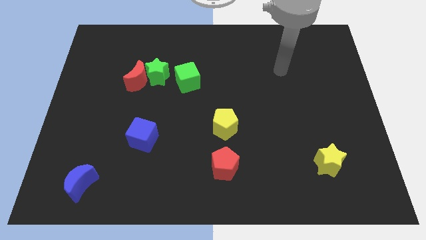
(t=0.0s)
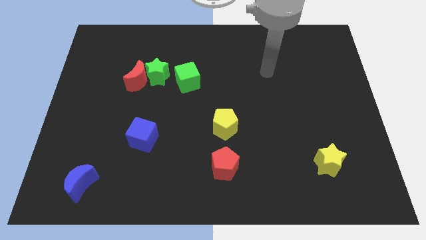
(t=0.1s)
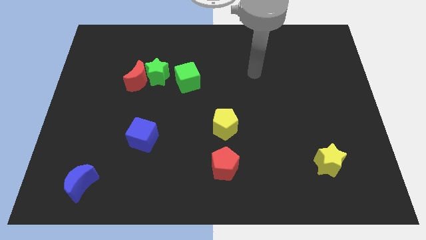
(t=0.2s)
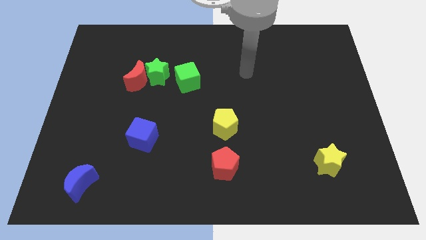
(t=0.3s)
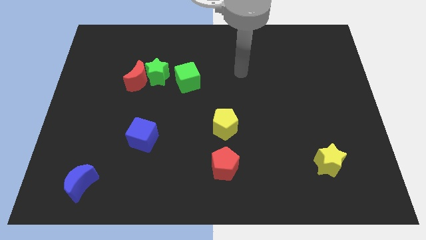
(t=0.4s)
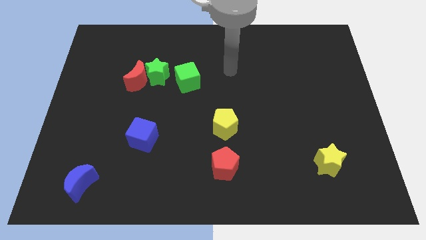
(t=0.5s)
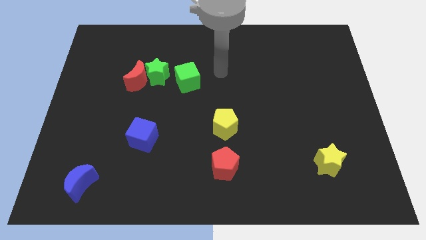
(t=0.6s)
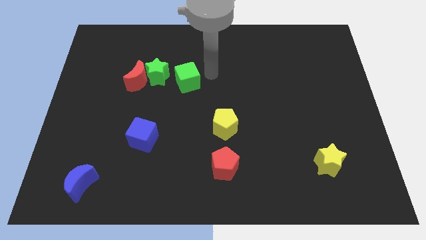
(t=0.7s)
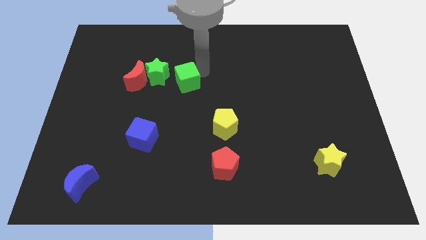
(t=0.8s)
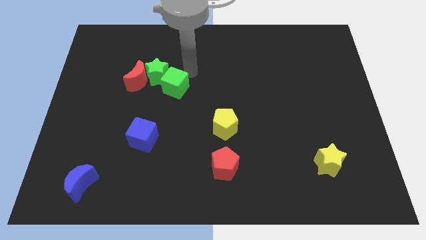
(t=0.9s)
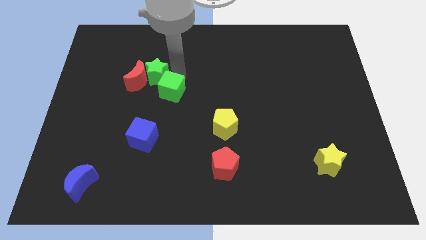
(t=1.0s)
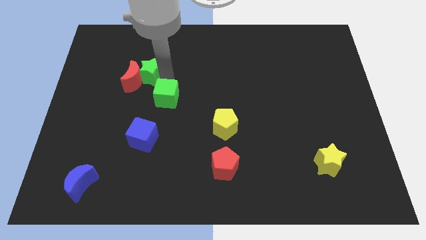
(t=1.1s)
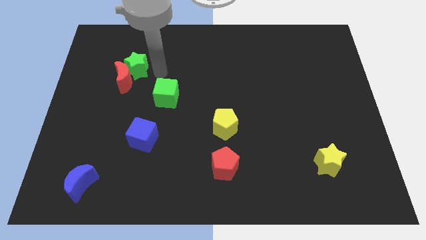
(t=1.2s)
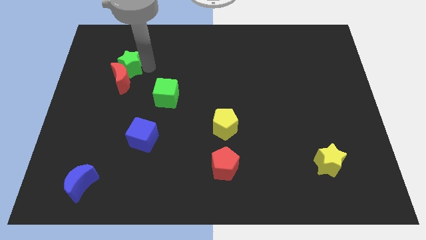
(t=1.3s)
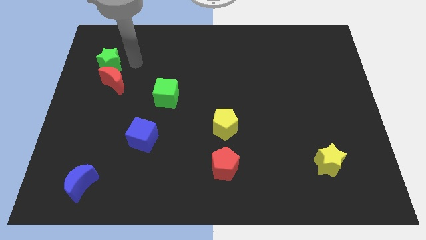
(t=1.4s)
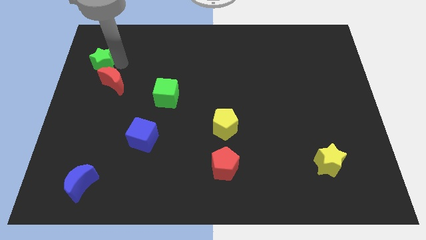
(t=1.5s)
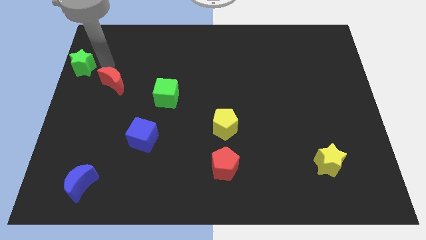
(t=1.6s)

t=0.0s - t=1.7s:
pull the red moon apart from the green star

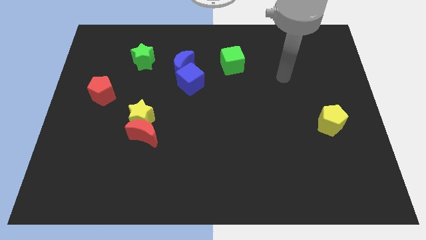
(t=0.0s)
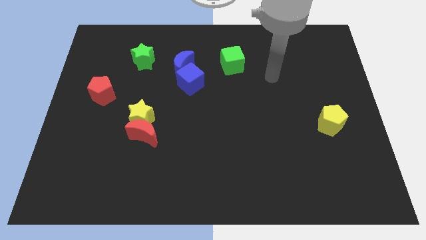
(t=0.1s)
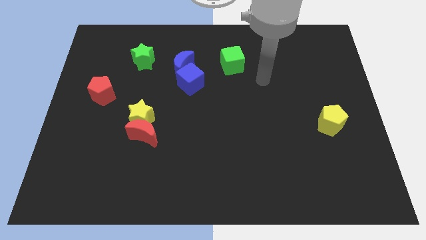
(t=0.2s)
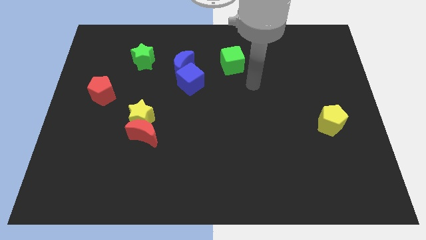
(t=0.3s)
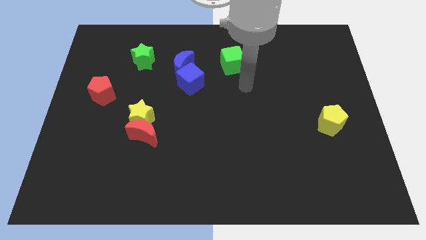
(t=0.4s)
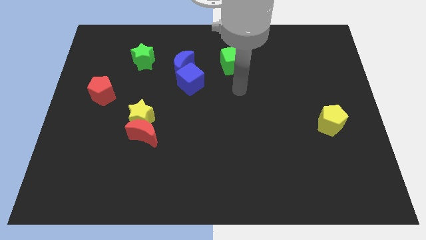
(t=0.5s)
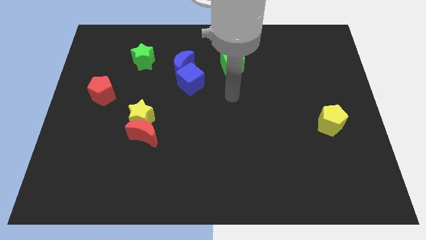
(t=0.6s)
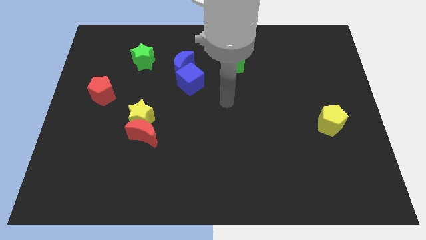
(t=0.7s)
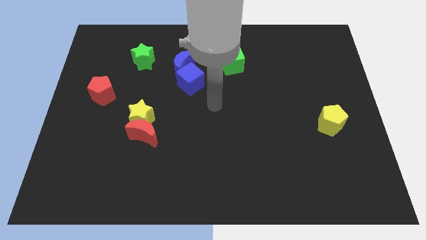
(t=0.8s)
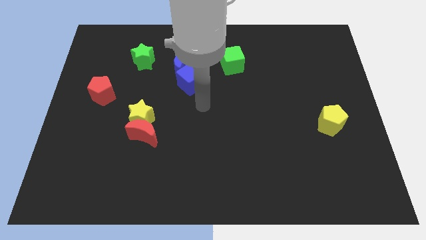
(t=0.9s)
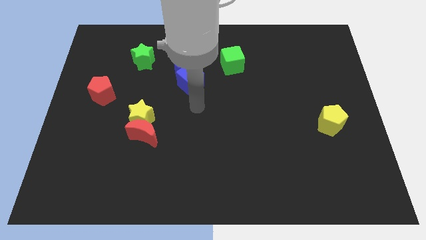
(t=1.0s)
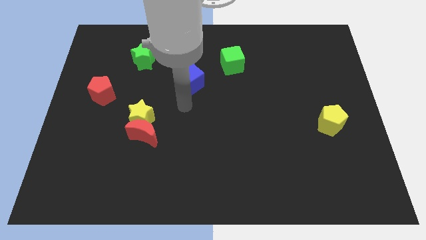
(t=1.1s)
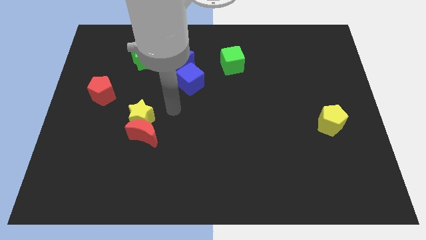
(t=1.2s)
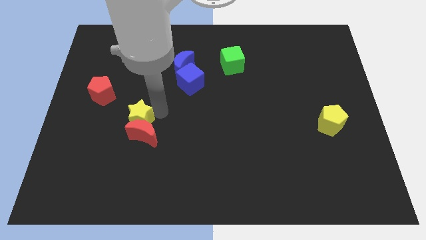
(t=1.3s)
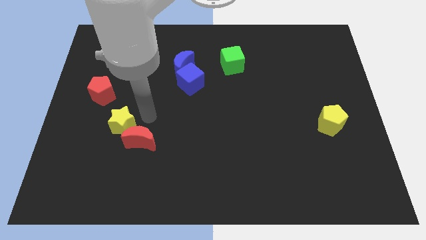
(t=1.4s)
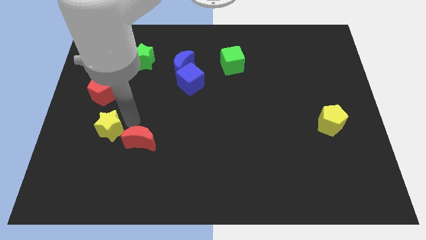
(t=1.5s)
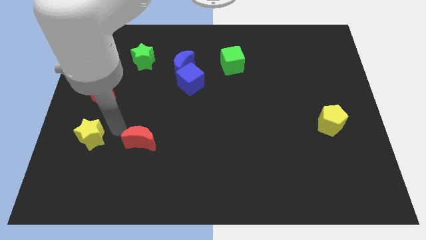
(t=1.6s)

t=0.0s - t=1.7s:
separate the red moon from the yellow star

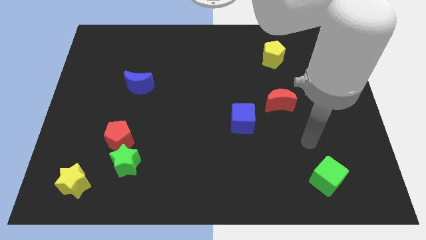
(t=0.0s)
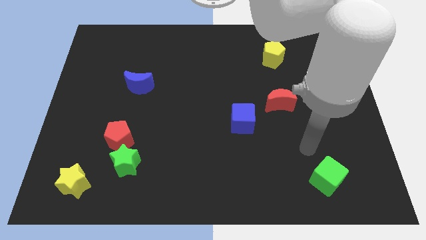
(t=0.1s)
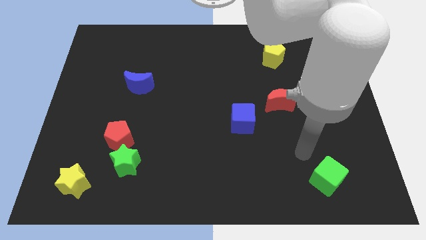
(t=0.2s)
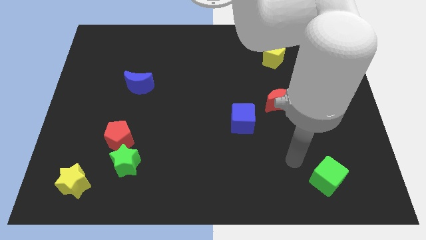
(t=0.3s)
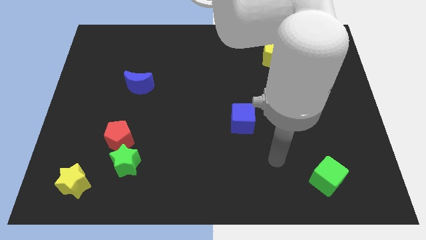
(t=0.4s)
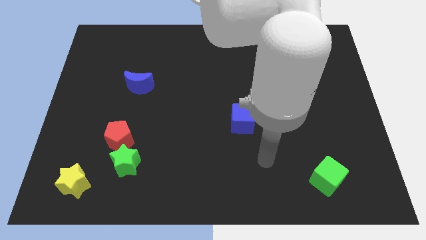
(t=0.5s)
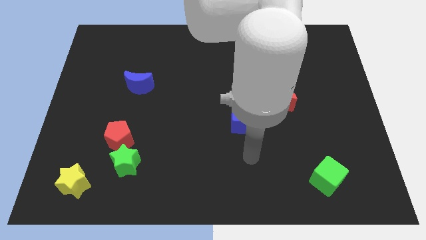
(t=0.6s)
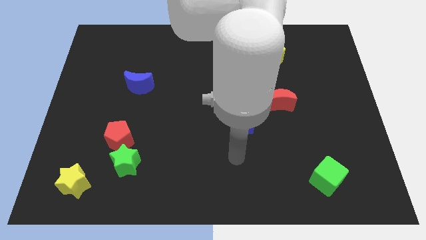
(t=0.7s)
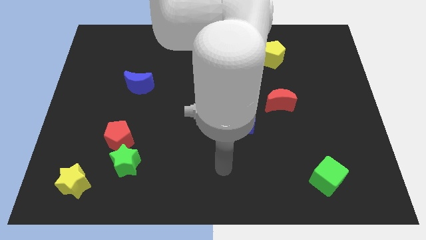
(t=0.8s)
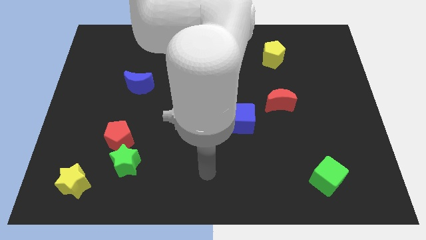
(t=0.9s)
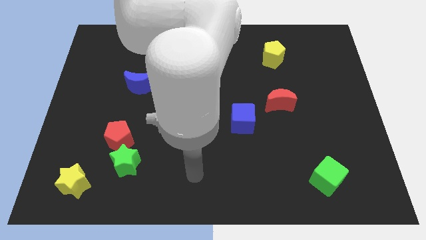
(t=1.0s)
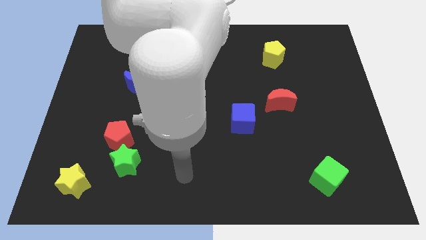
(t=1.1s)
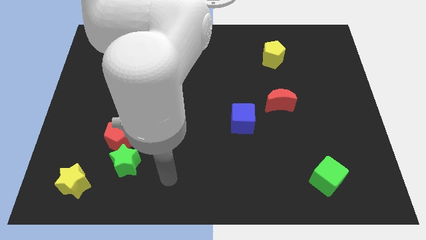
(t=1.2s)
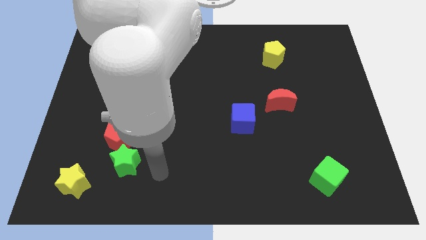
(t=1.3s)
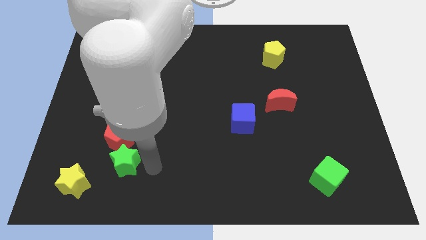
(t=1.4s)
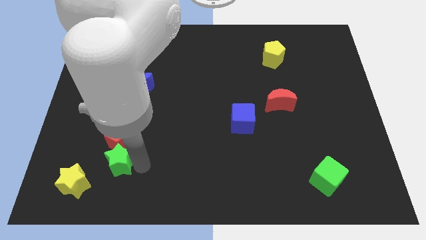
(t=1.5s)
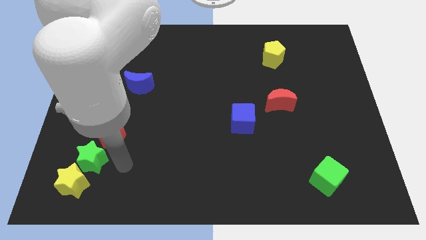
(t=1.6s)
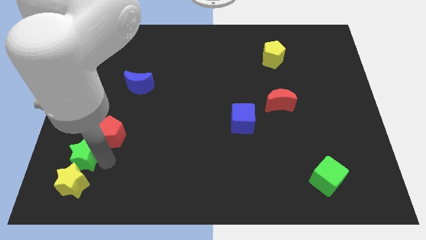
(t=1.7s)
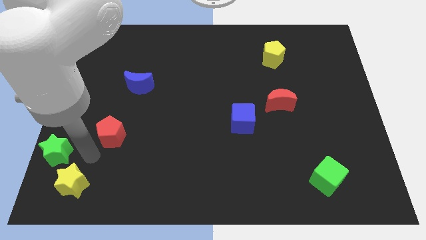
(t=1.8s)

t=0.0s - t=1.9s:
pull the red pentagon apart from the green star

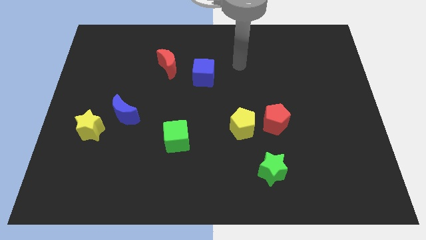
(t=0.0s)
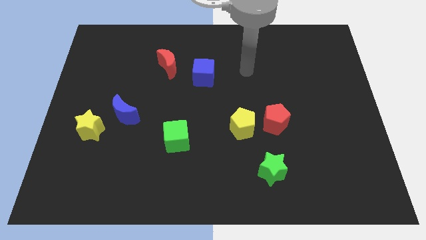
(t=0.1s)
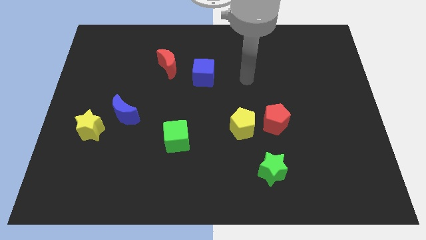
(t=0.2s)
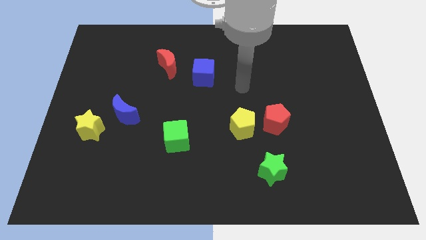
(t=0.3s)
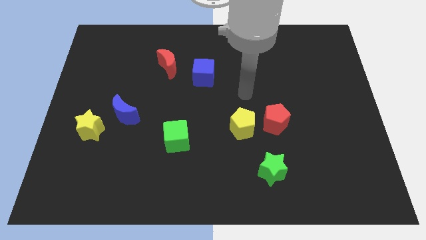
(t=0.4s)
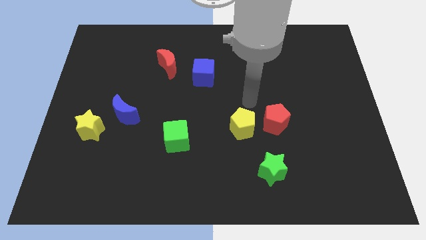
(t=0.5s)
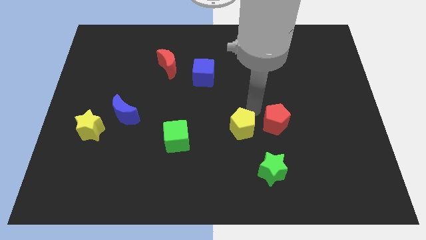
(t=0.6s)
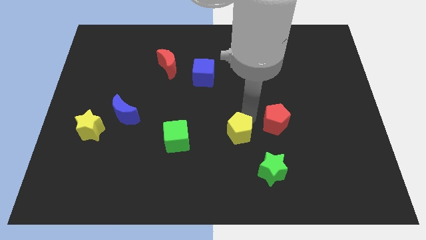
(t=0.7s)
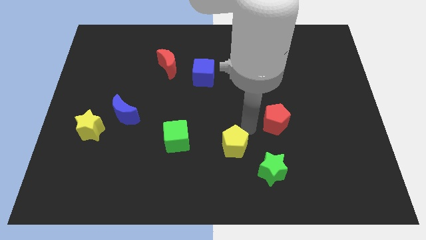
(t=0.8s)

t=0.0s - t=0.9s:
separate the red pentagon from the yellow pentagon

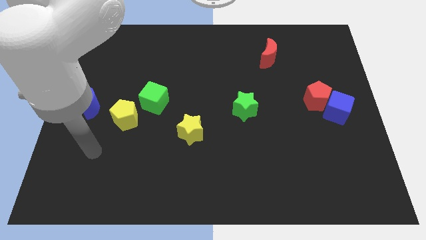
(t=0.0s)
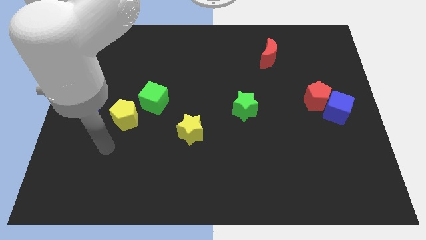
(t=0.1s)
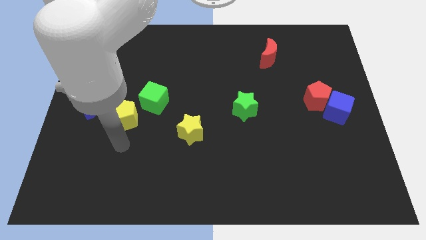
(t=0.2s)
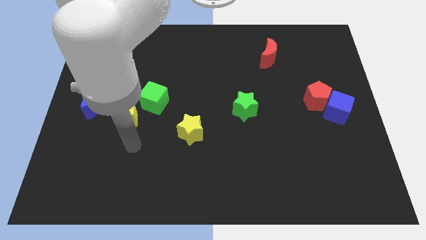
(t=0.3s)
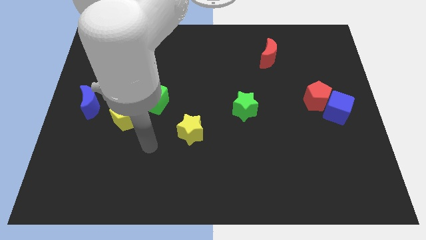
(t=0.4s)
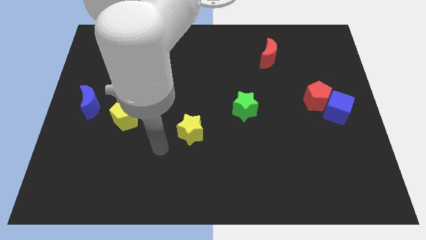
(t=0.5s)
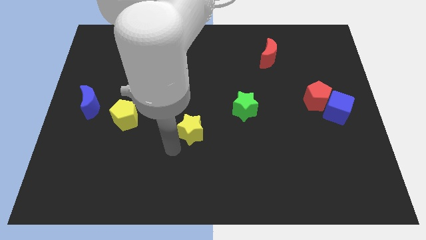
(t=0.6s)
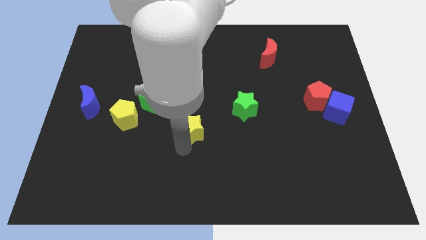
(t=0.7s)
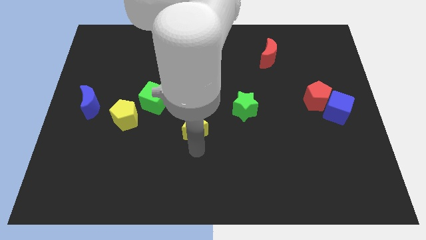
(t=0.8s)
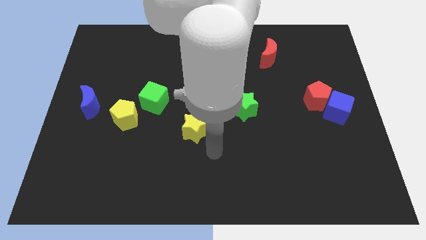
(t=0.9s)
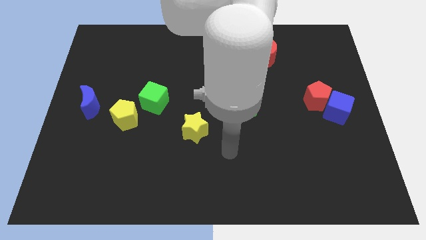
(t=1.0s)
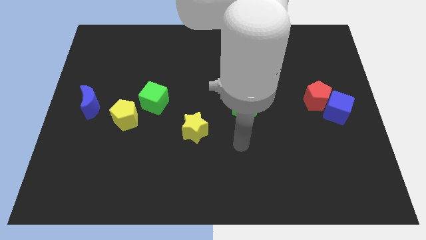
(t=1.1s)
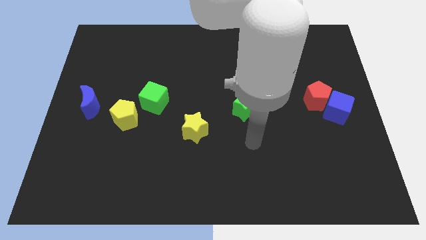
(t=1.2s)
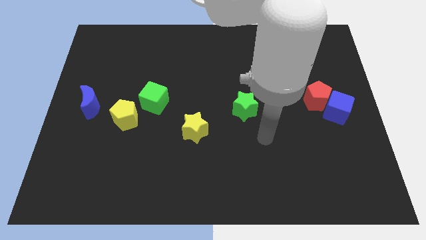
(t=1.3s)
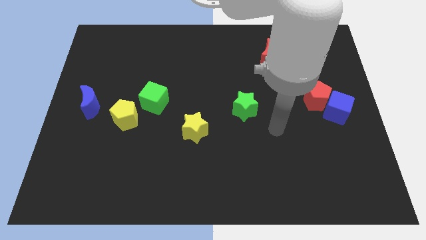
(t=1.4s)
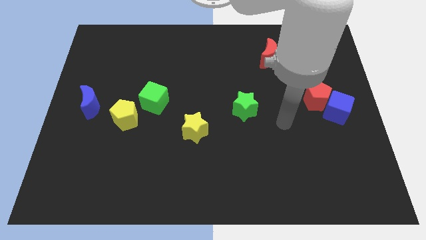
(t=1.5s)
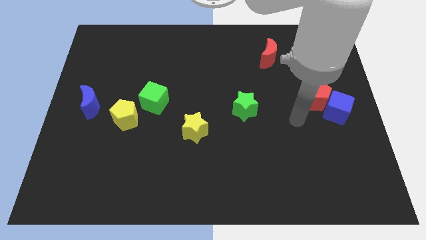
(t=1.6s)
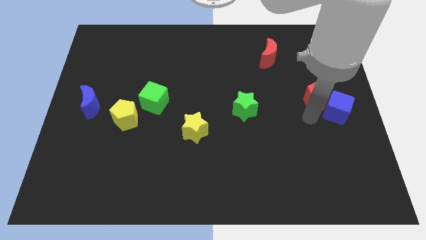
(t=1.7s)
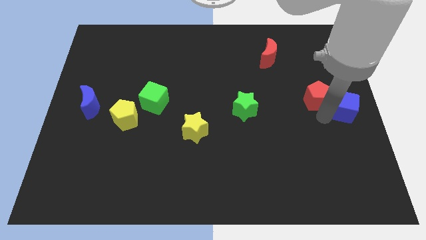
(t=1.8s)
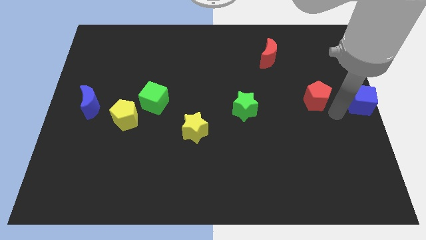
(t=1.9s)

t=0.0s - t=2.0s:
move the red pentagon away from the blue cube

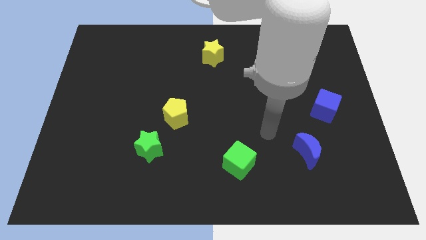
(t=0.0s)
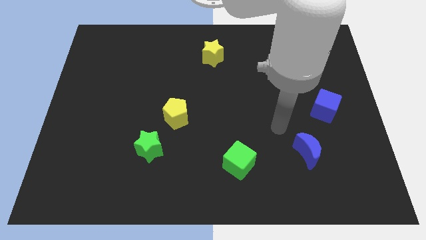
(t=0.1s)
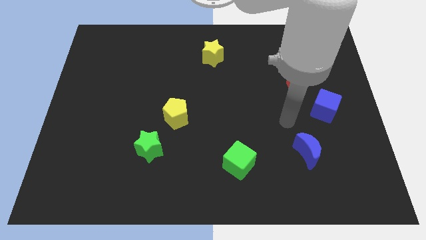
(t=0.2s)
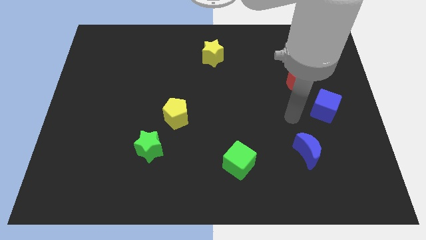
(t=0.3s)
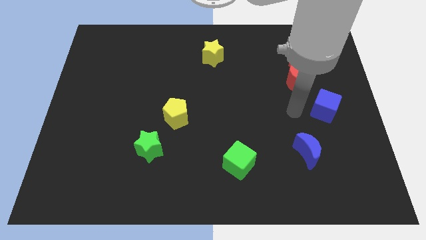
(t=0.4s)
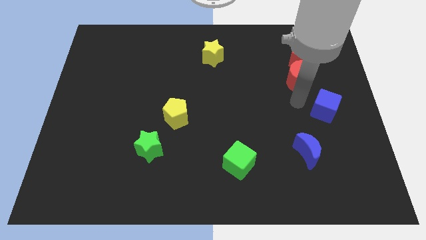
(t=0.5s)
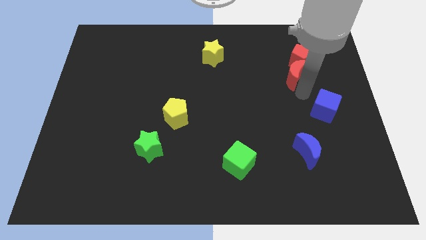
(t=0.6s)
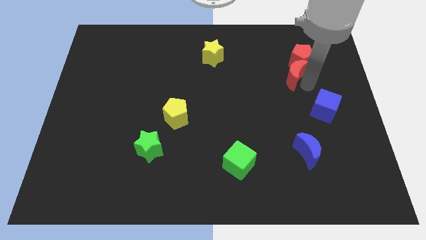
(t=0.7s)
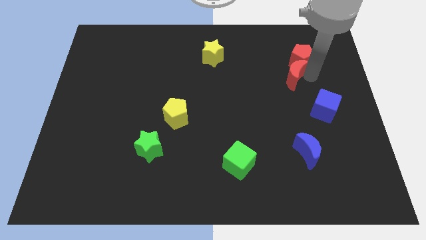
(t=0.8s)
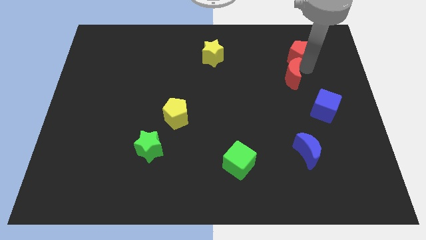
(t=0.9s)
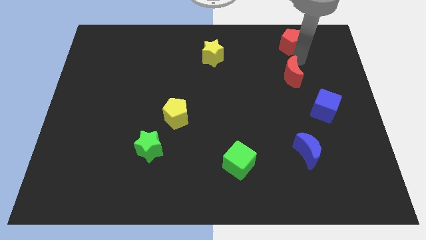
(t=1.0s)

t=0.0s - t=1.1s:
move the red moon away from the red pentagon

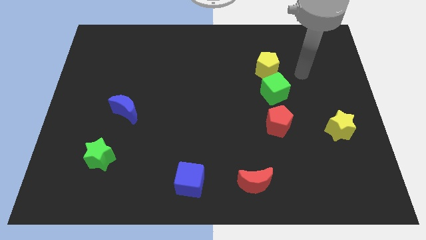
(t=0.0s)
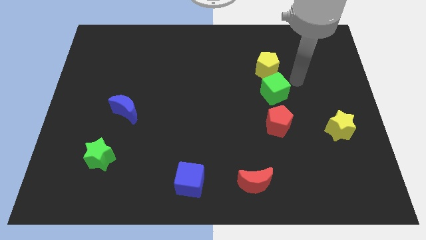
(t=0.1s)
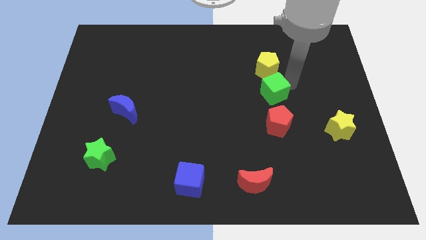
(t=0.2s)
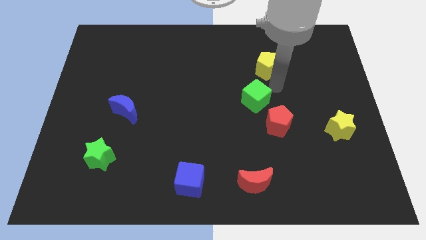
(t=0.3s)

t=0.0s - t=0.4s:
pull the yellow pentagon apart from the green cube
